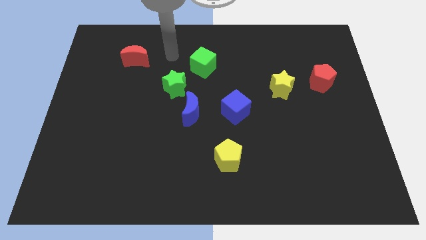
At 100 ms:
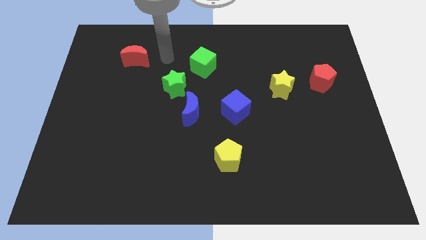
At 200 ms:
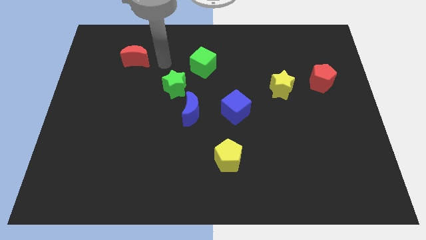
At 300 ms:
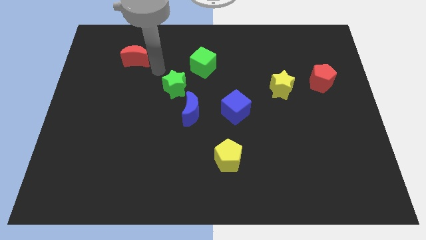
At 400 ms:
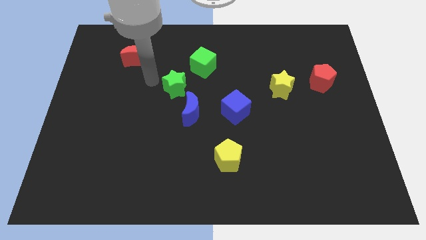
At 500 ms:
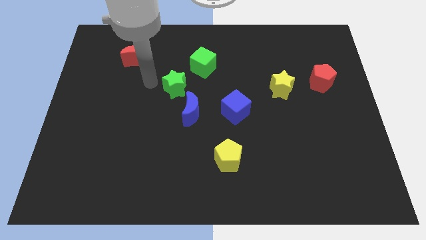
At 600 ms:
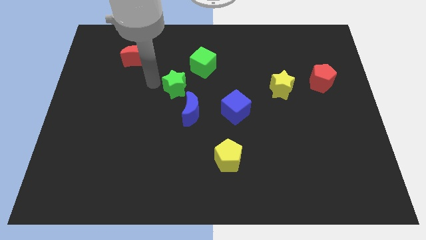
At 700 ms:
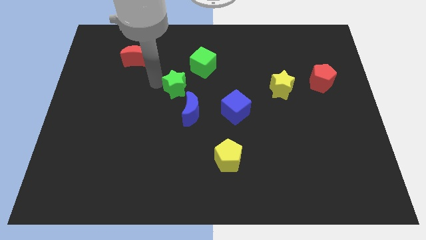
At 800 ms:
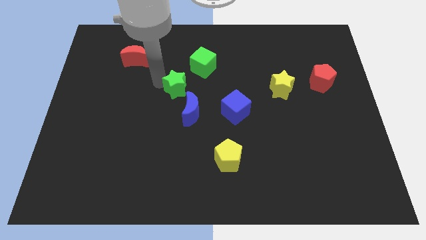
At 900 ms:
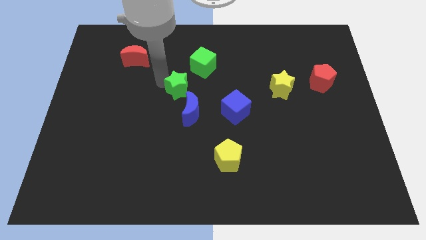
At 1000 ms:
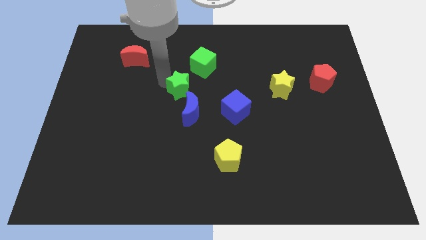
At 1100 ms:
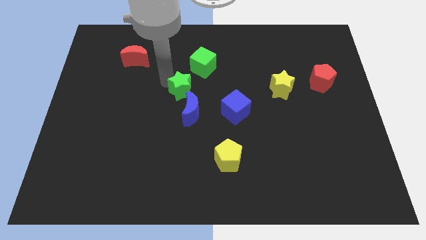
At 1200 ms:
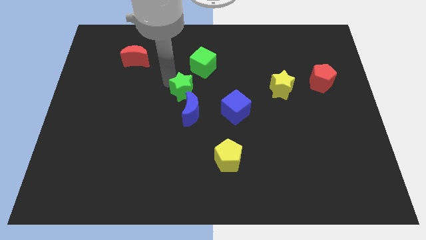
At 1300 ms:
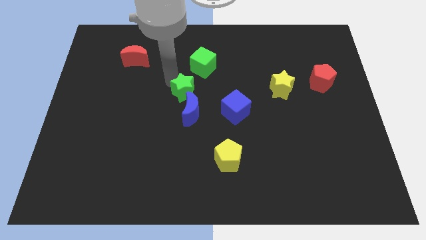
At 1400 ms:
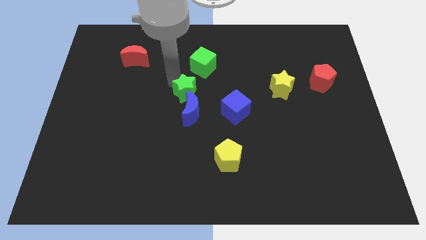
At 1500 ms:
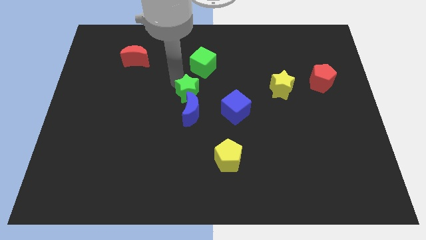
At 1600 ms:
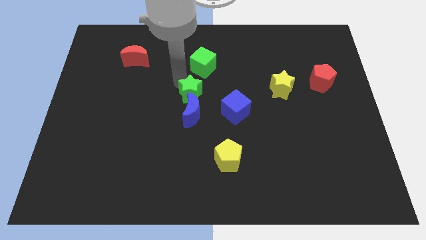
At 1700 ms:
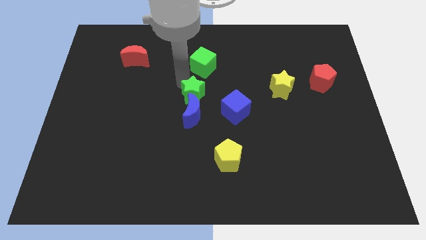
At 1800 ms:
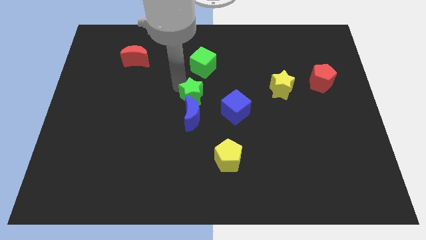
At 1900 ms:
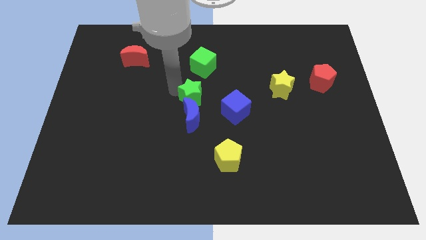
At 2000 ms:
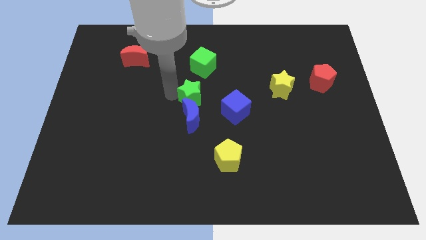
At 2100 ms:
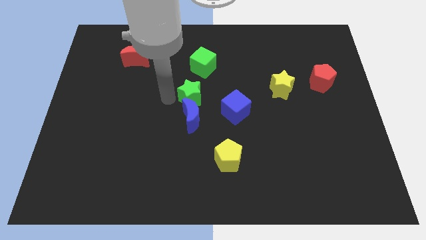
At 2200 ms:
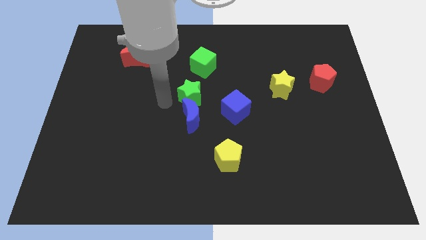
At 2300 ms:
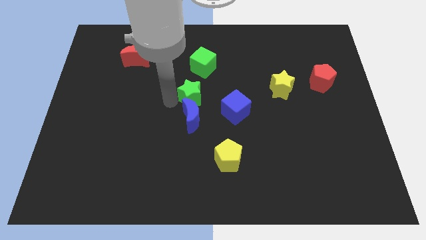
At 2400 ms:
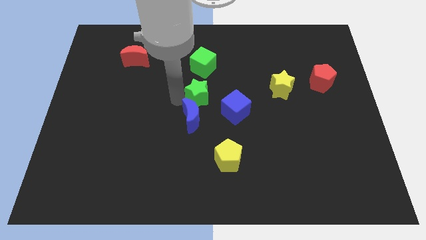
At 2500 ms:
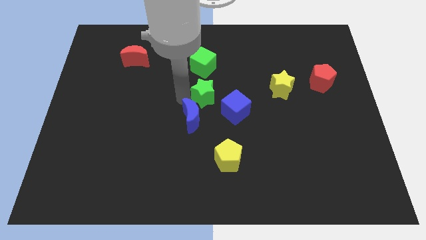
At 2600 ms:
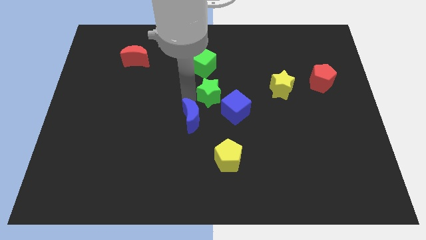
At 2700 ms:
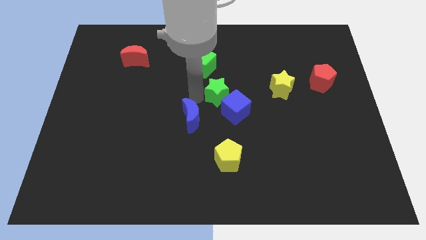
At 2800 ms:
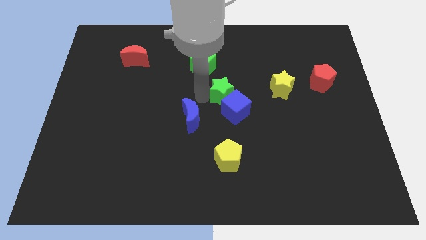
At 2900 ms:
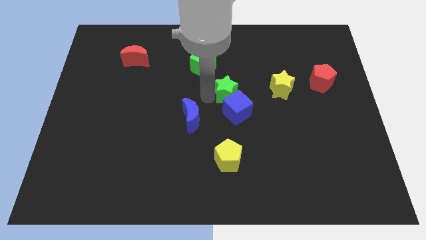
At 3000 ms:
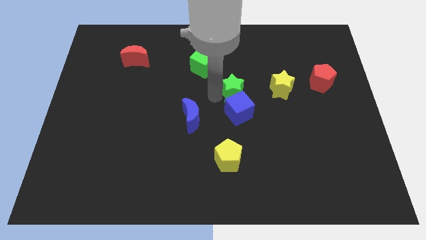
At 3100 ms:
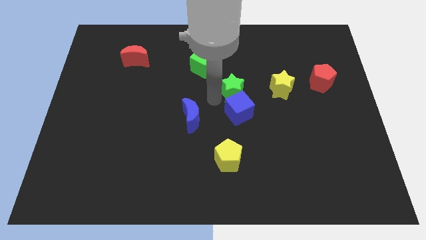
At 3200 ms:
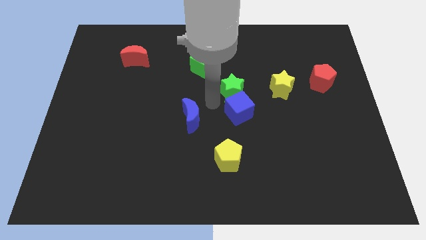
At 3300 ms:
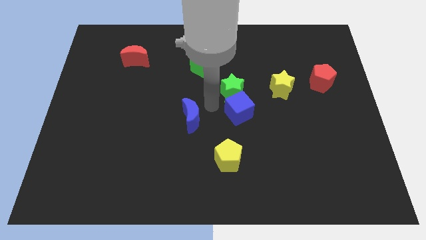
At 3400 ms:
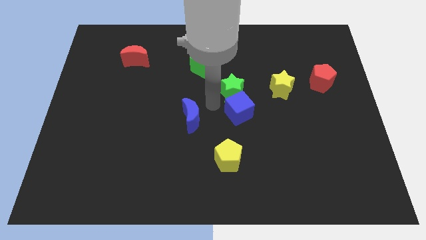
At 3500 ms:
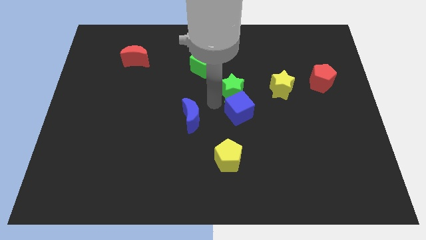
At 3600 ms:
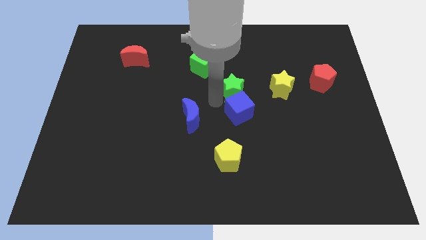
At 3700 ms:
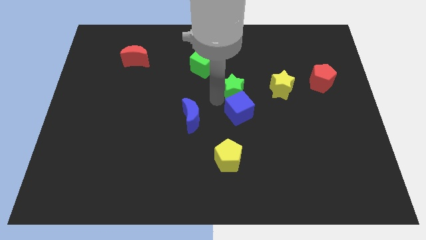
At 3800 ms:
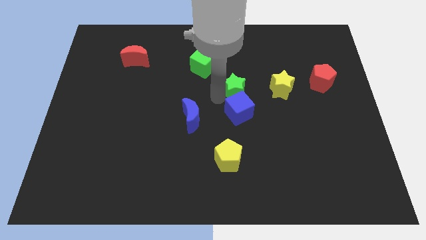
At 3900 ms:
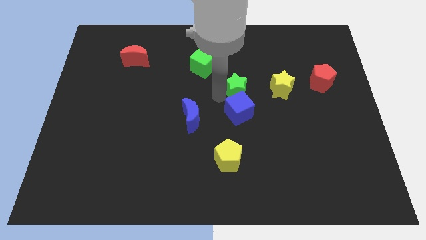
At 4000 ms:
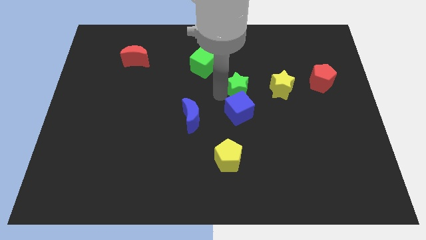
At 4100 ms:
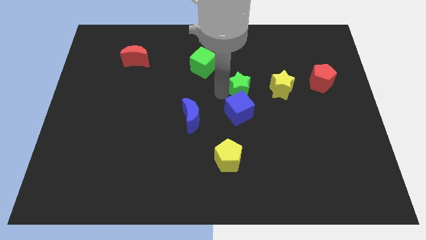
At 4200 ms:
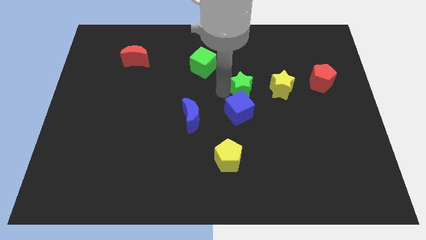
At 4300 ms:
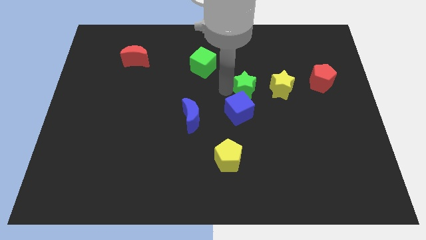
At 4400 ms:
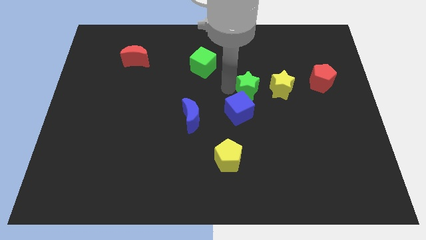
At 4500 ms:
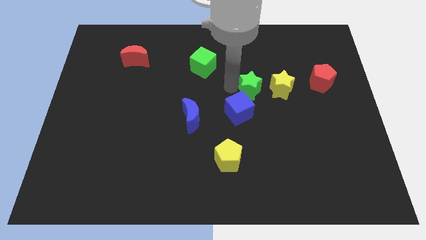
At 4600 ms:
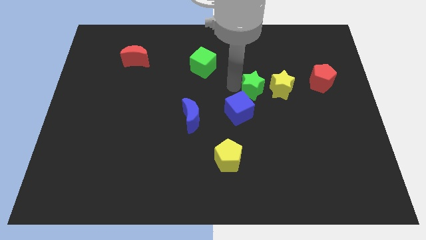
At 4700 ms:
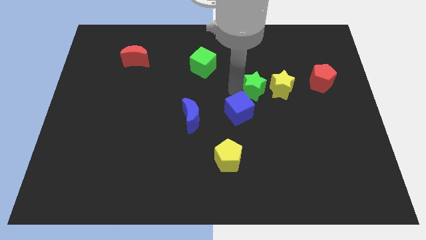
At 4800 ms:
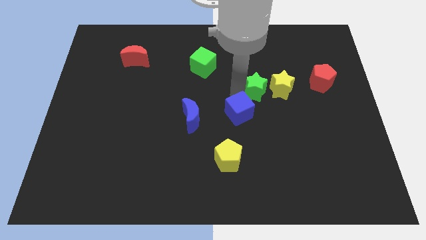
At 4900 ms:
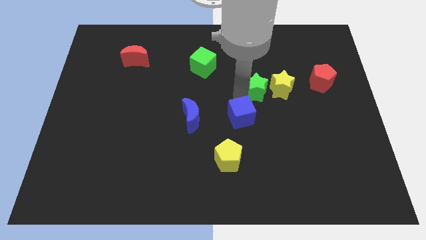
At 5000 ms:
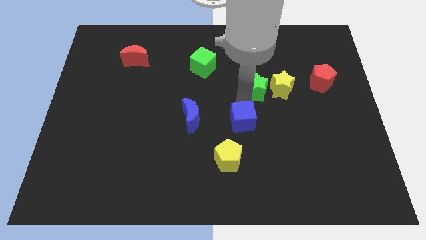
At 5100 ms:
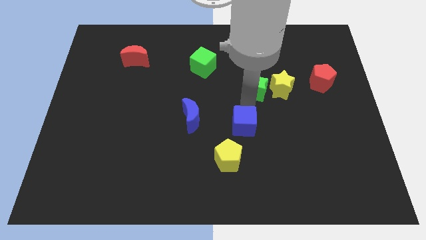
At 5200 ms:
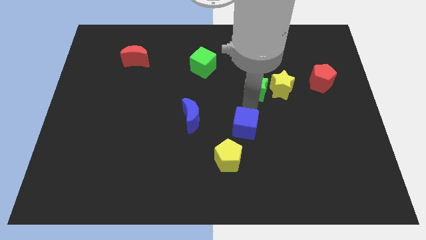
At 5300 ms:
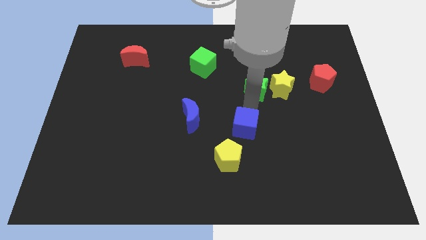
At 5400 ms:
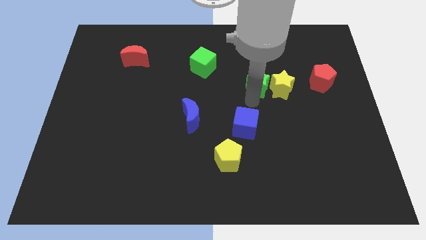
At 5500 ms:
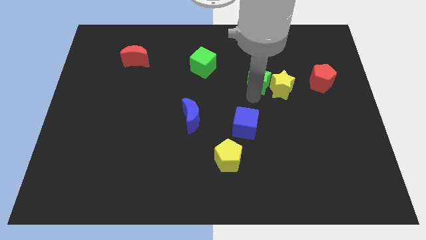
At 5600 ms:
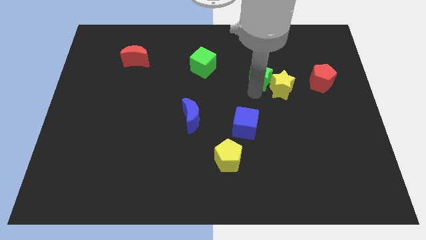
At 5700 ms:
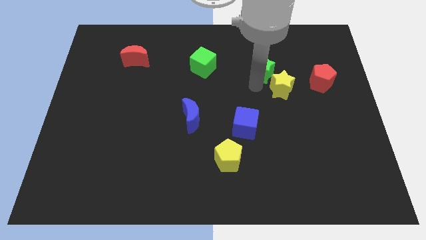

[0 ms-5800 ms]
slide the green star above the yellow star

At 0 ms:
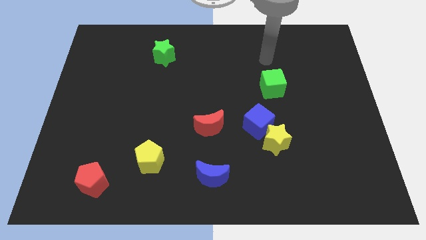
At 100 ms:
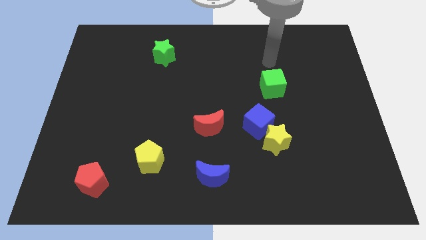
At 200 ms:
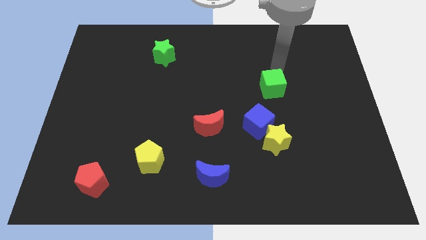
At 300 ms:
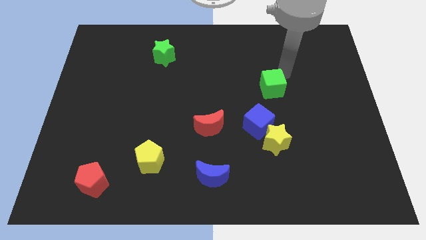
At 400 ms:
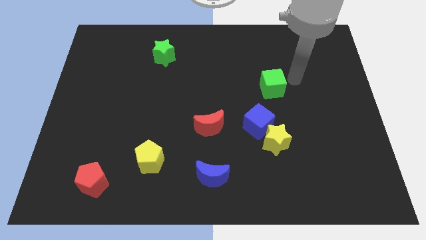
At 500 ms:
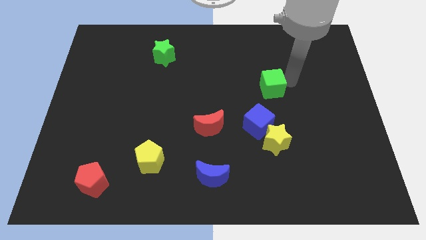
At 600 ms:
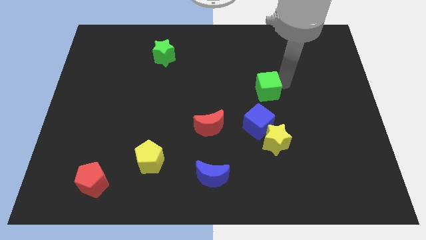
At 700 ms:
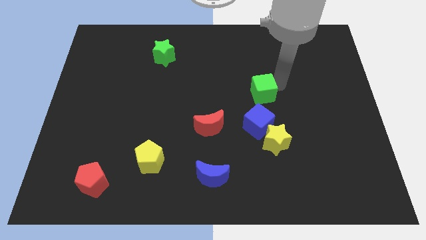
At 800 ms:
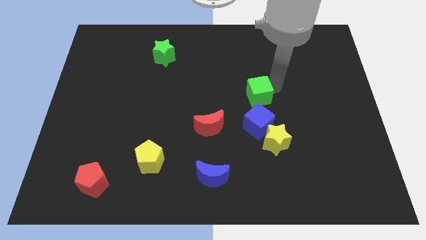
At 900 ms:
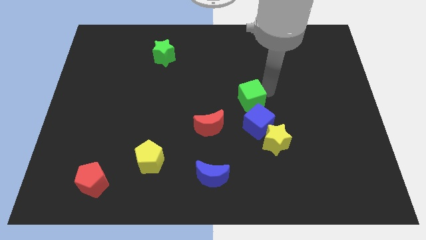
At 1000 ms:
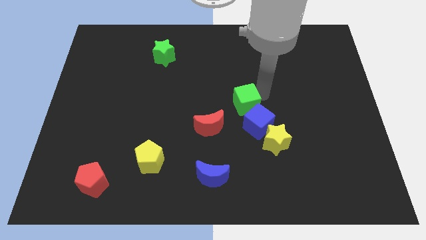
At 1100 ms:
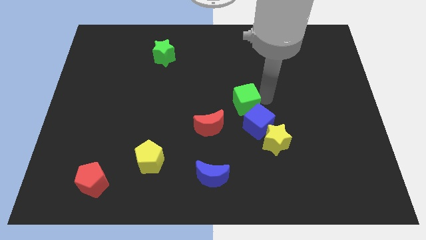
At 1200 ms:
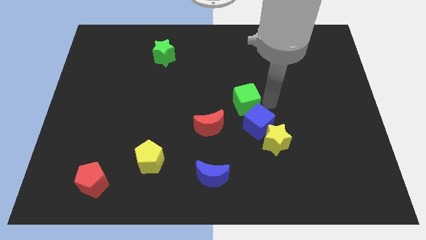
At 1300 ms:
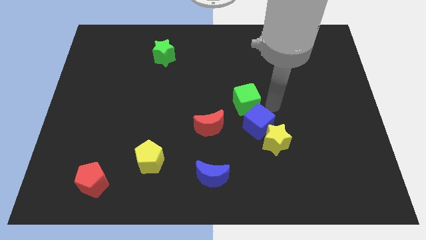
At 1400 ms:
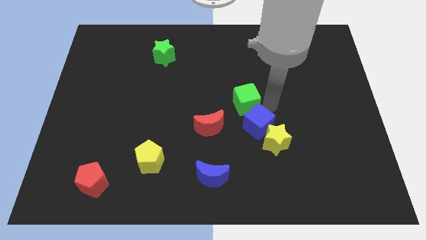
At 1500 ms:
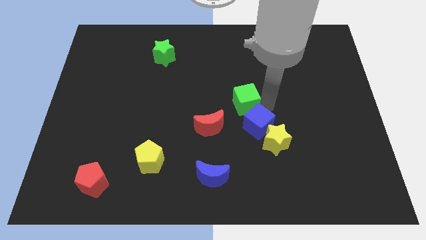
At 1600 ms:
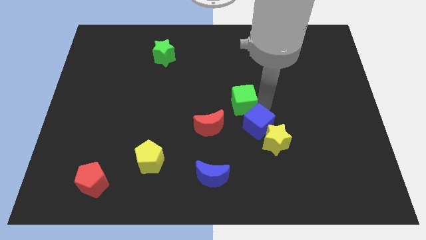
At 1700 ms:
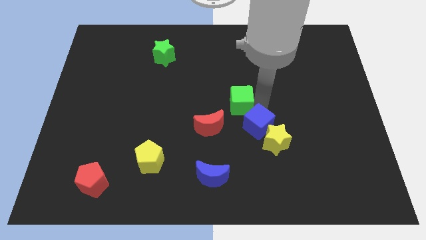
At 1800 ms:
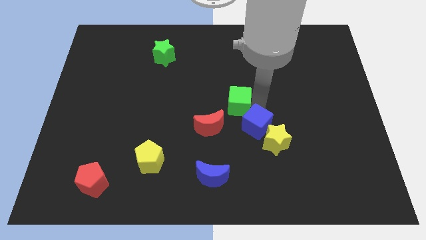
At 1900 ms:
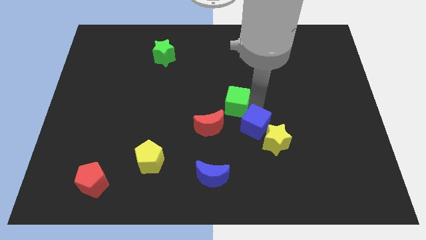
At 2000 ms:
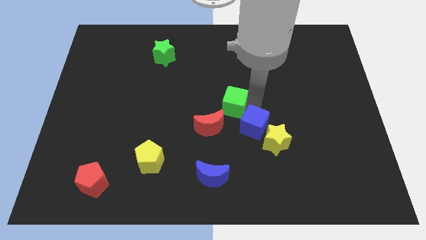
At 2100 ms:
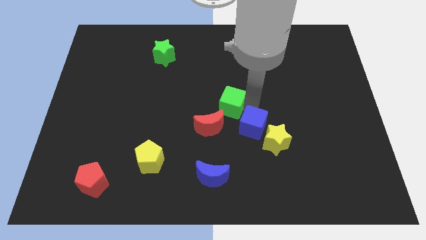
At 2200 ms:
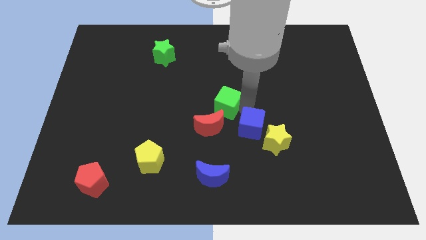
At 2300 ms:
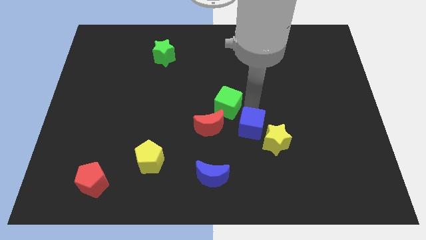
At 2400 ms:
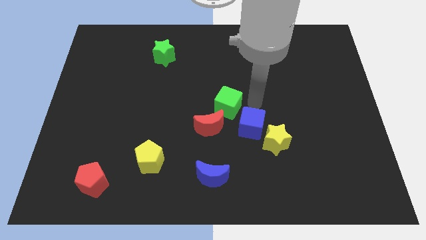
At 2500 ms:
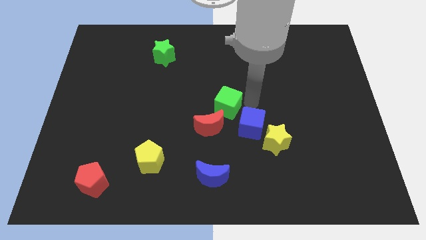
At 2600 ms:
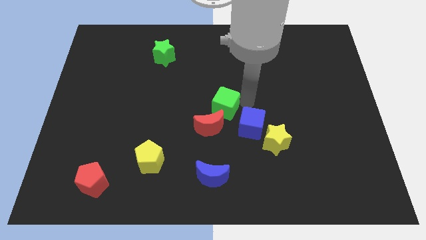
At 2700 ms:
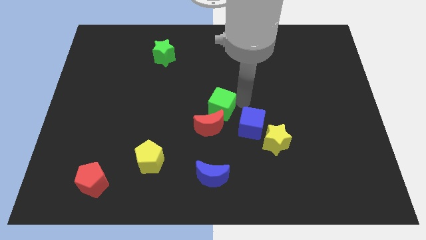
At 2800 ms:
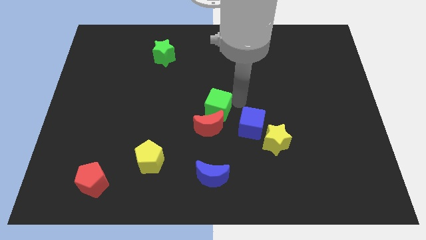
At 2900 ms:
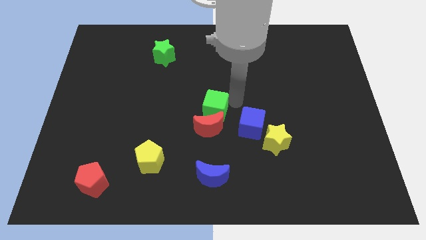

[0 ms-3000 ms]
slide the green cube diagonally up and to the left of the red moon
